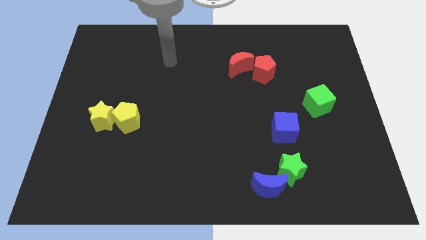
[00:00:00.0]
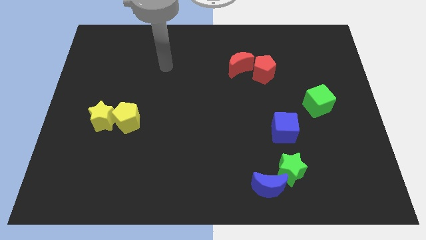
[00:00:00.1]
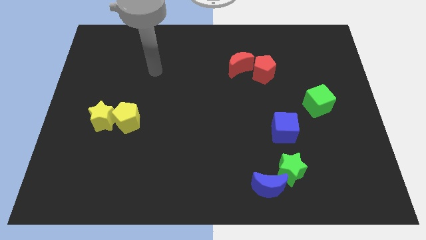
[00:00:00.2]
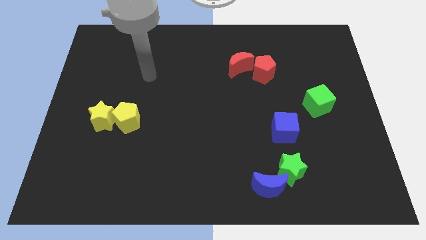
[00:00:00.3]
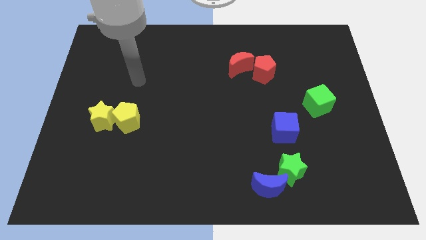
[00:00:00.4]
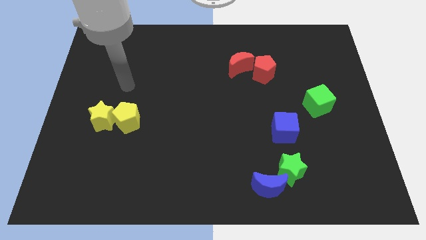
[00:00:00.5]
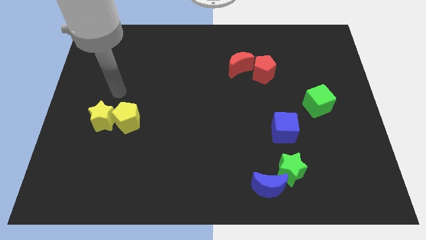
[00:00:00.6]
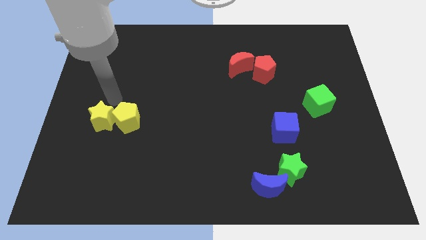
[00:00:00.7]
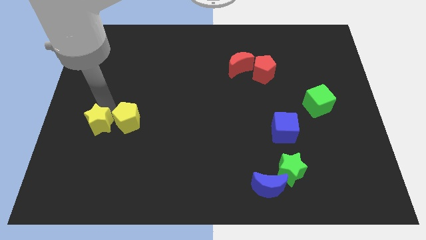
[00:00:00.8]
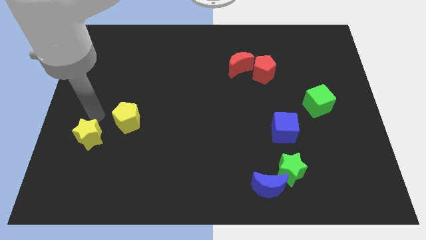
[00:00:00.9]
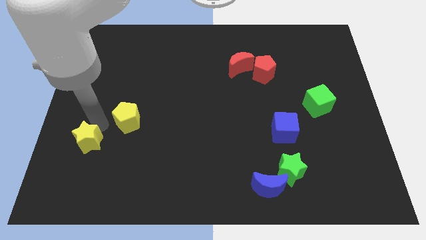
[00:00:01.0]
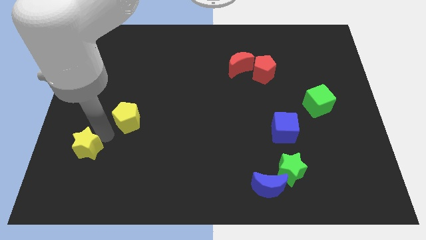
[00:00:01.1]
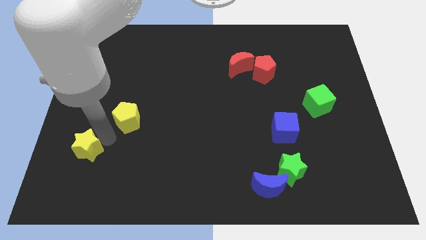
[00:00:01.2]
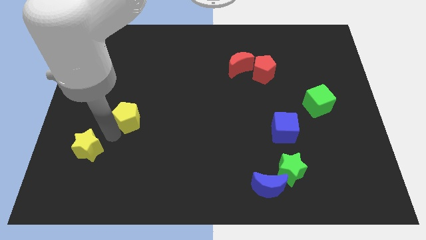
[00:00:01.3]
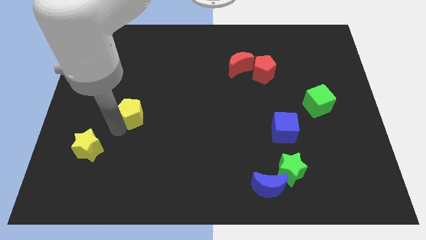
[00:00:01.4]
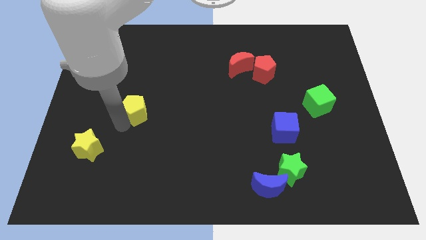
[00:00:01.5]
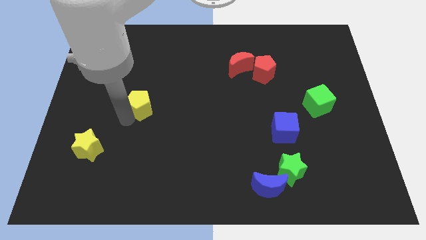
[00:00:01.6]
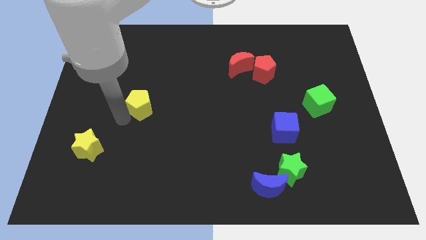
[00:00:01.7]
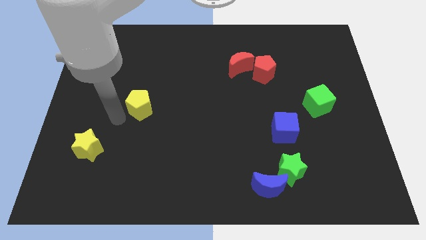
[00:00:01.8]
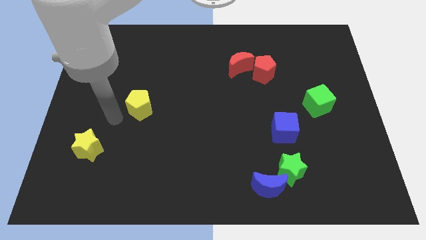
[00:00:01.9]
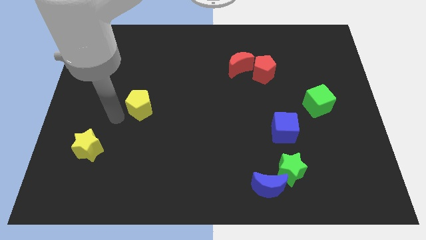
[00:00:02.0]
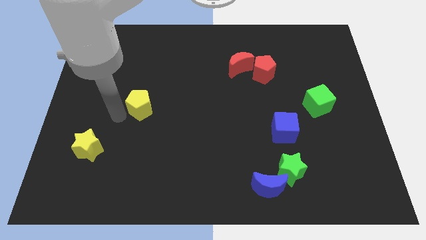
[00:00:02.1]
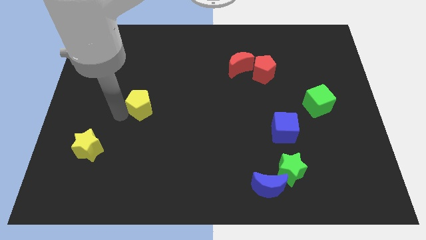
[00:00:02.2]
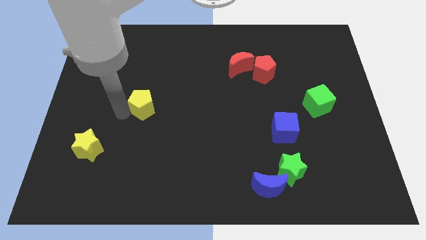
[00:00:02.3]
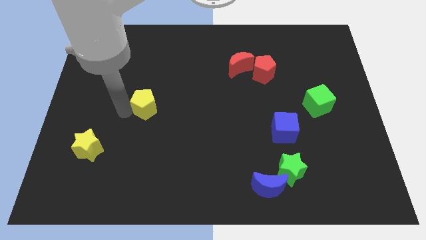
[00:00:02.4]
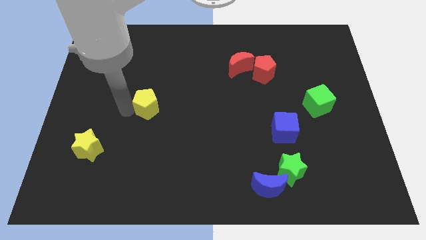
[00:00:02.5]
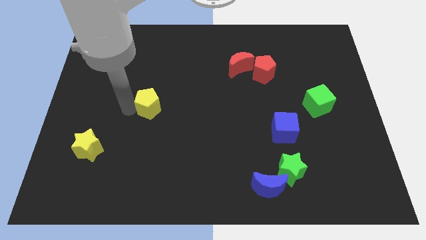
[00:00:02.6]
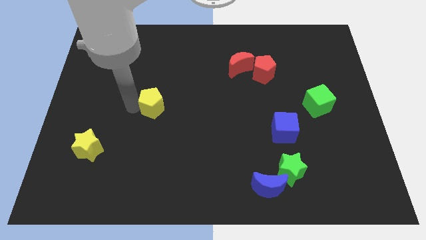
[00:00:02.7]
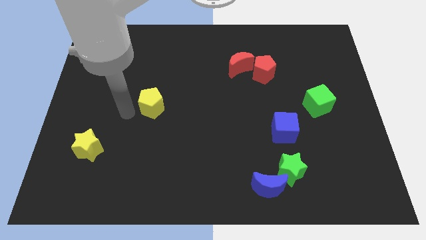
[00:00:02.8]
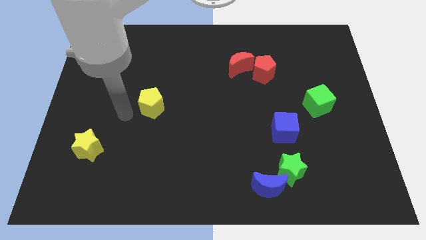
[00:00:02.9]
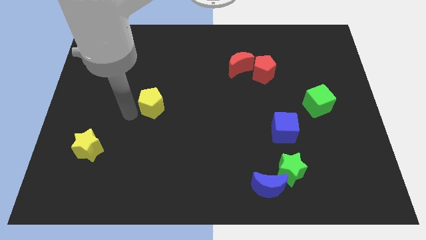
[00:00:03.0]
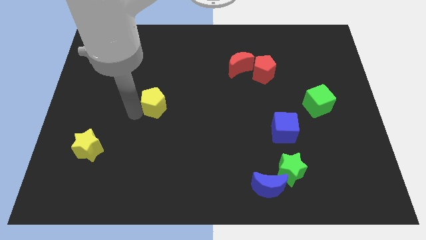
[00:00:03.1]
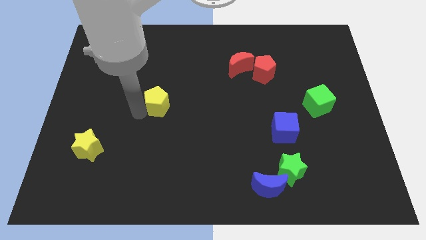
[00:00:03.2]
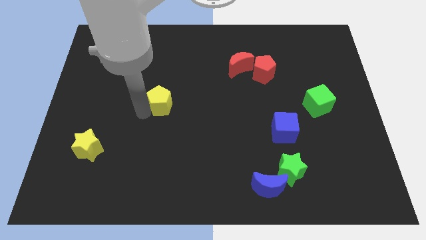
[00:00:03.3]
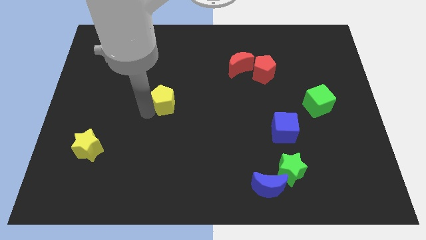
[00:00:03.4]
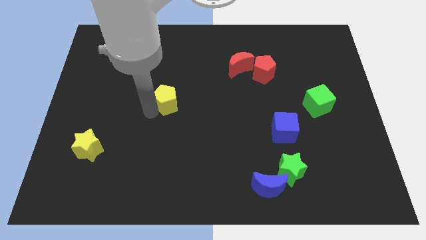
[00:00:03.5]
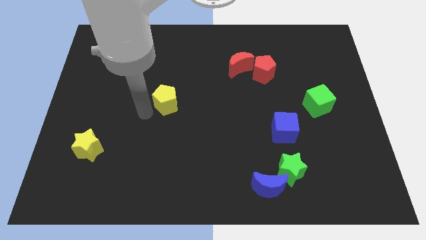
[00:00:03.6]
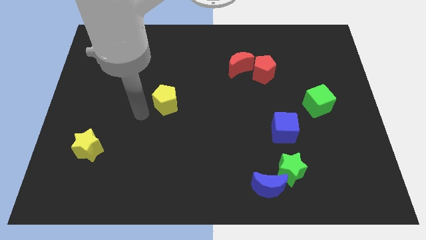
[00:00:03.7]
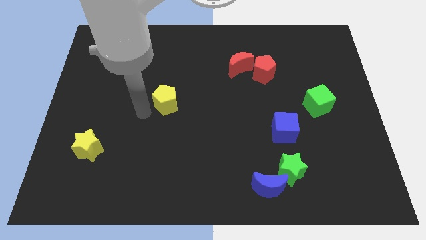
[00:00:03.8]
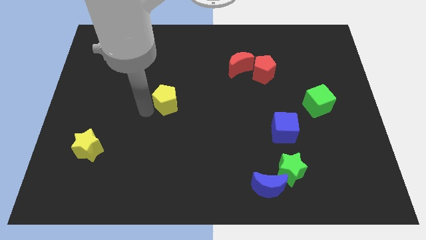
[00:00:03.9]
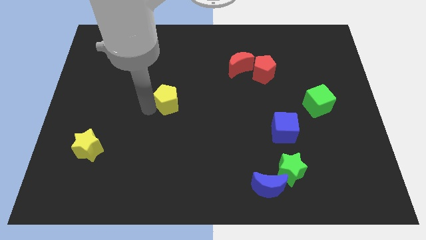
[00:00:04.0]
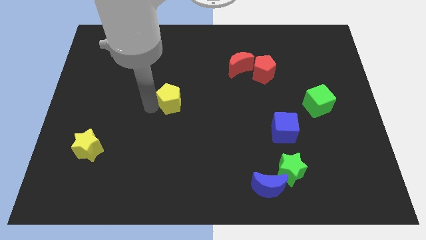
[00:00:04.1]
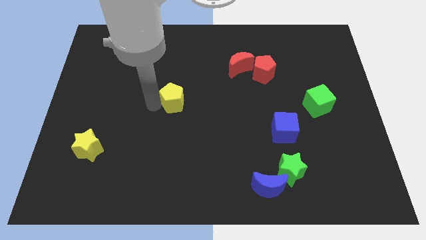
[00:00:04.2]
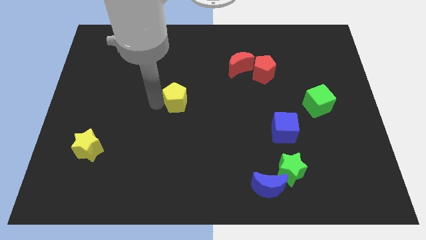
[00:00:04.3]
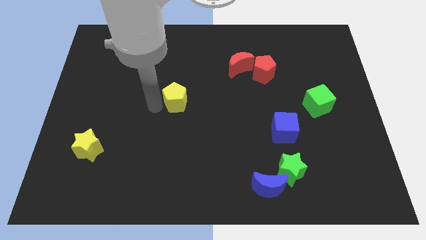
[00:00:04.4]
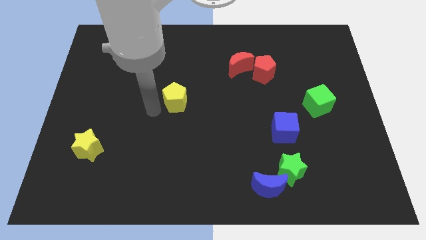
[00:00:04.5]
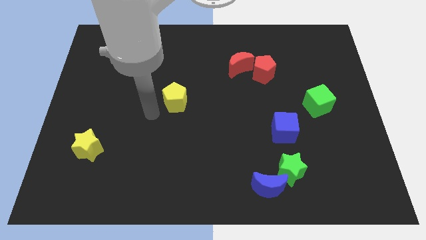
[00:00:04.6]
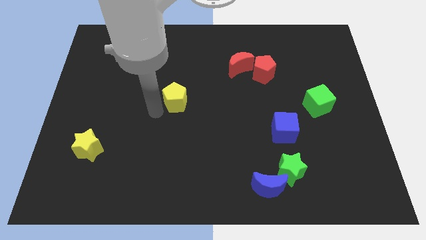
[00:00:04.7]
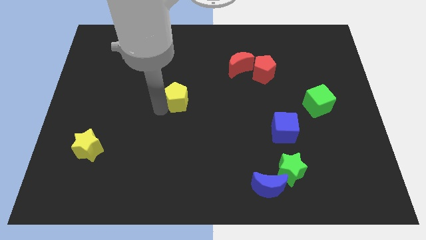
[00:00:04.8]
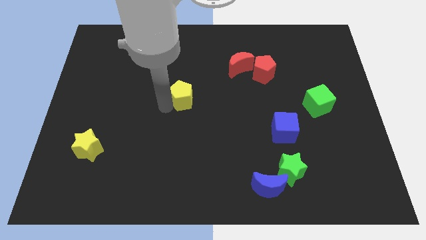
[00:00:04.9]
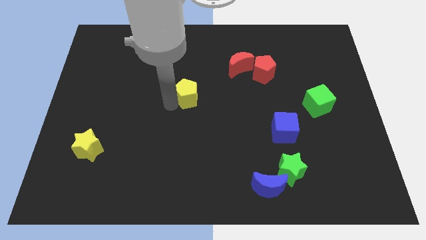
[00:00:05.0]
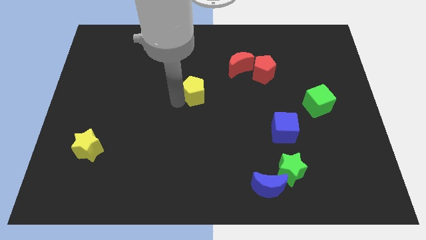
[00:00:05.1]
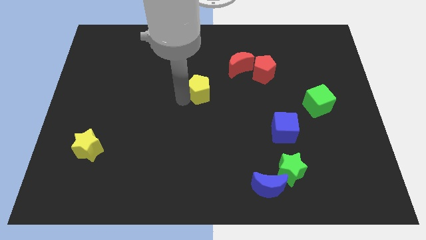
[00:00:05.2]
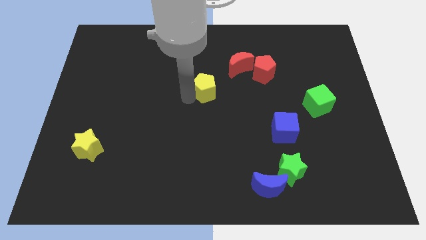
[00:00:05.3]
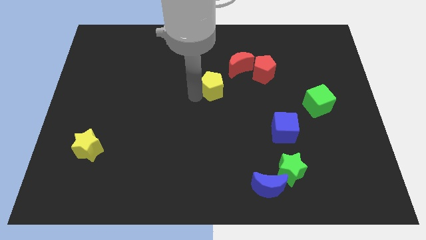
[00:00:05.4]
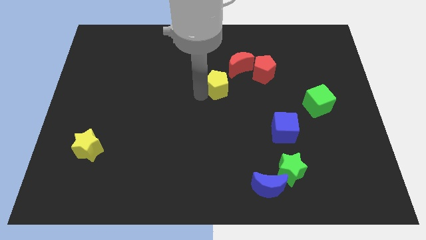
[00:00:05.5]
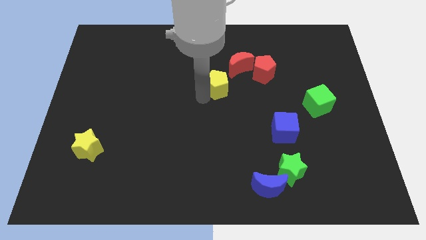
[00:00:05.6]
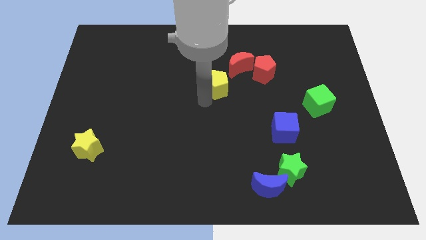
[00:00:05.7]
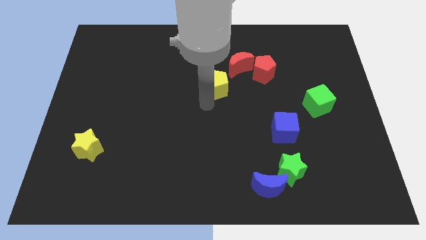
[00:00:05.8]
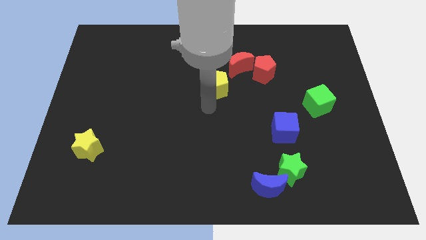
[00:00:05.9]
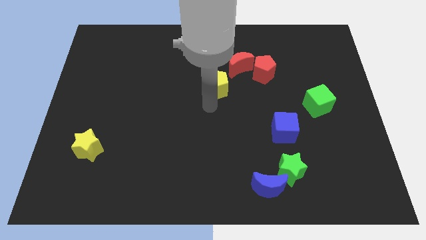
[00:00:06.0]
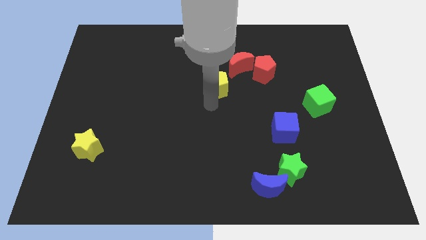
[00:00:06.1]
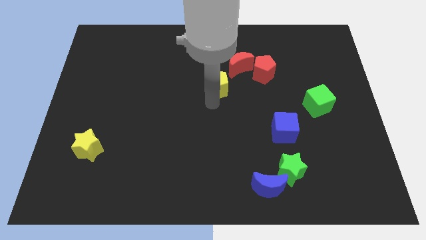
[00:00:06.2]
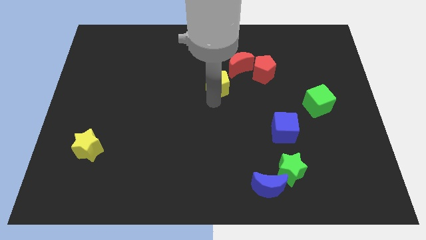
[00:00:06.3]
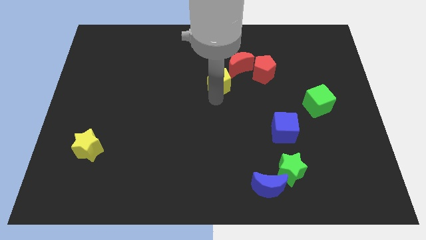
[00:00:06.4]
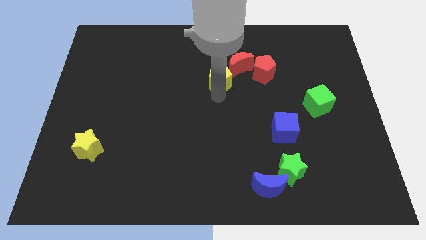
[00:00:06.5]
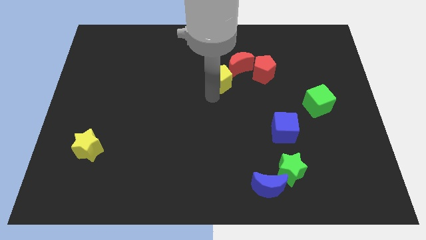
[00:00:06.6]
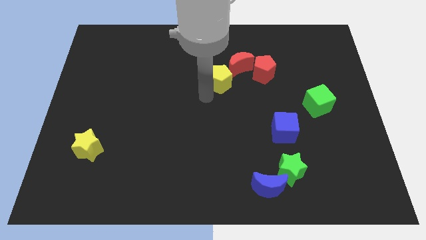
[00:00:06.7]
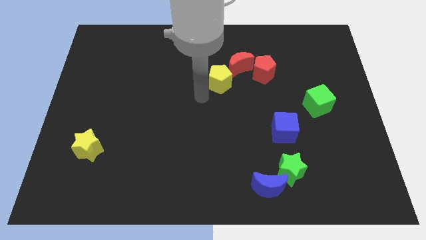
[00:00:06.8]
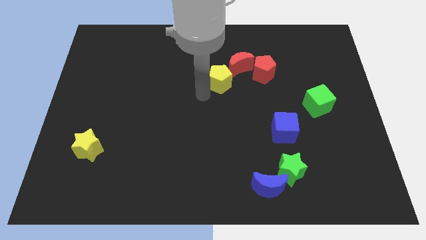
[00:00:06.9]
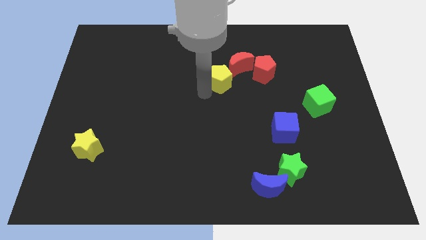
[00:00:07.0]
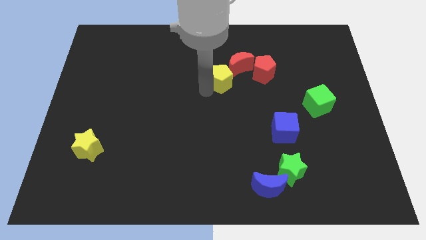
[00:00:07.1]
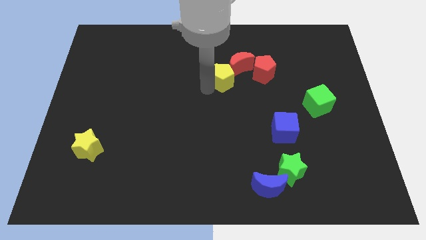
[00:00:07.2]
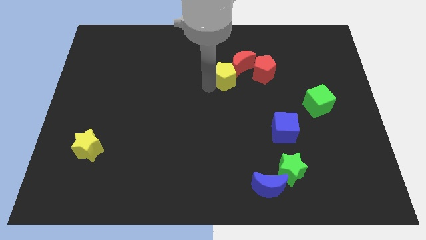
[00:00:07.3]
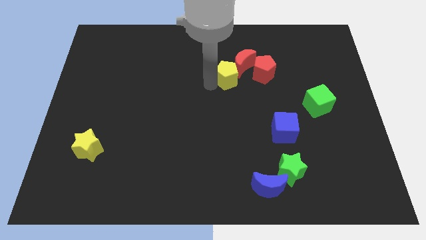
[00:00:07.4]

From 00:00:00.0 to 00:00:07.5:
push the yellow pentagon close to the red moon
